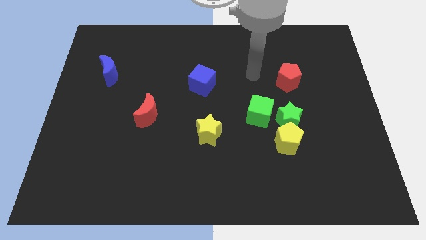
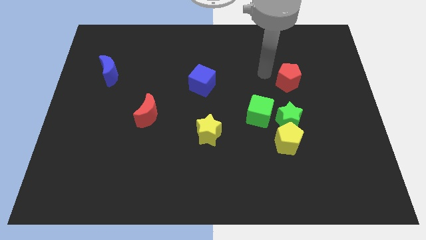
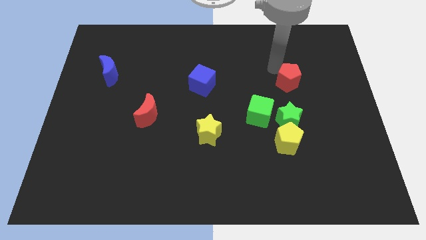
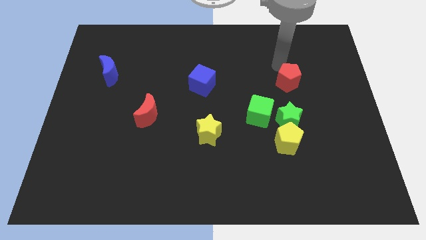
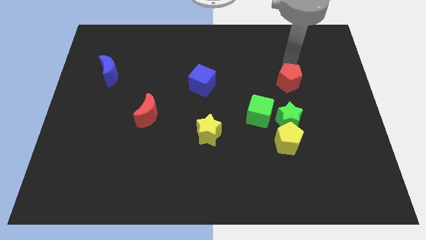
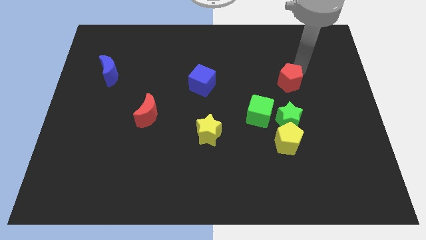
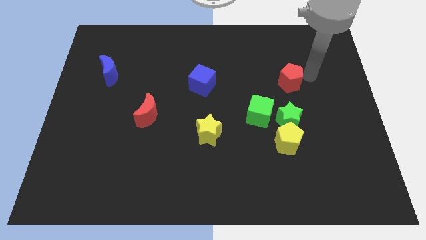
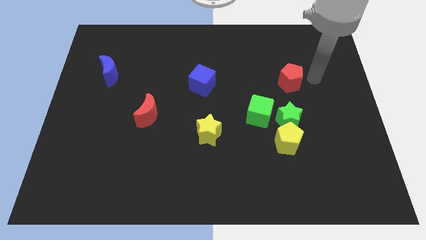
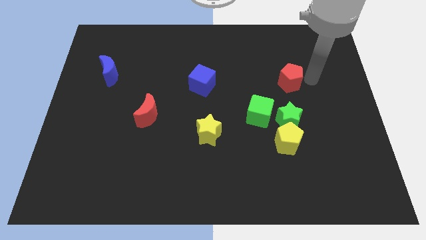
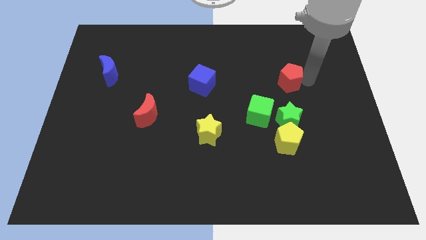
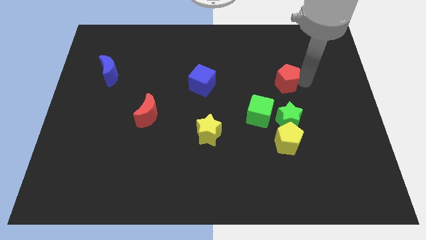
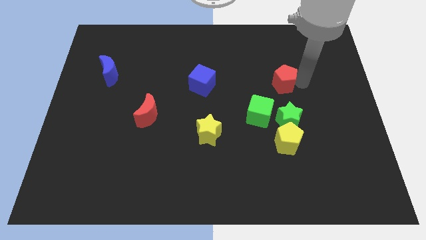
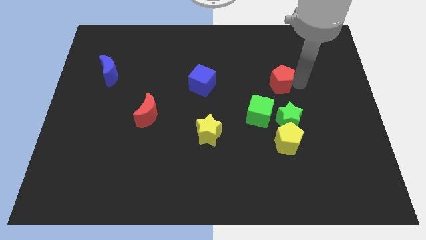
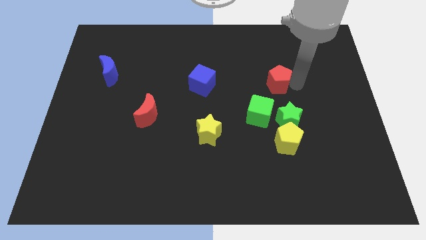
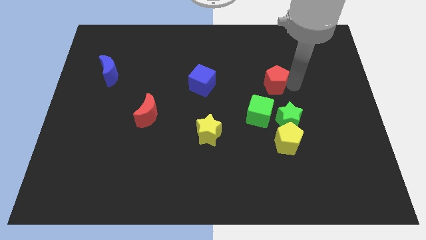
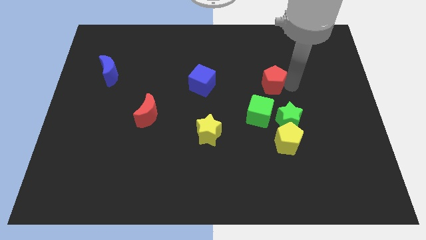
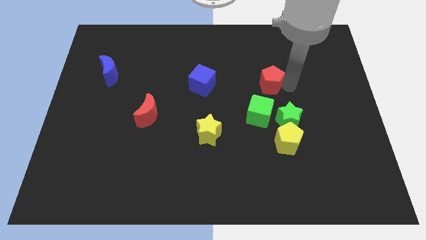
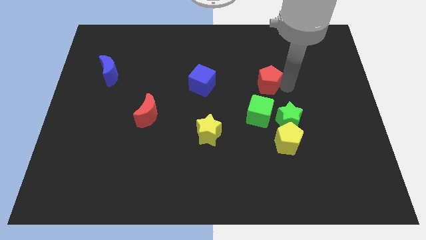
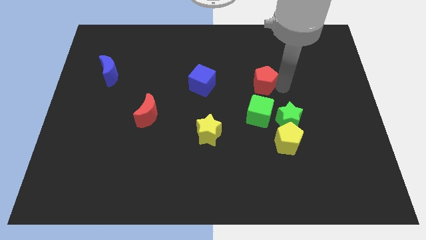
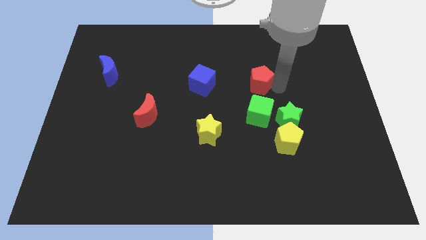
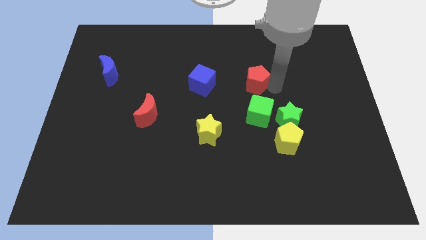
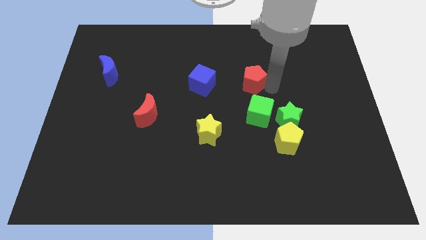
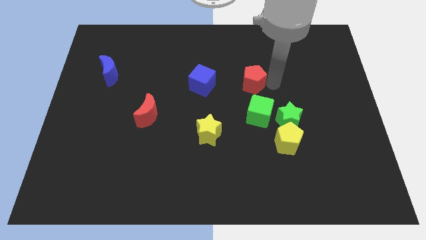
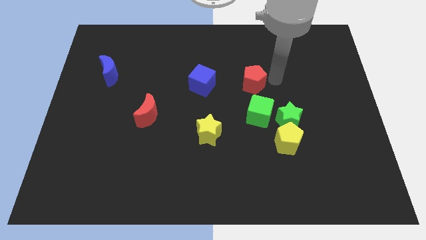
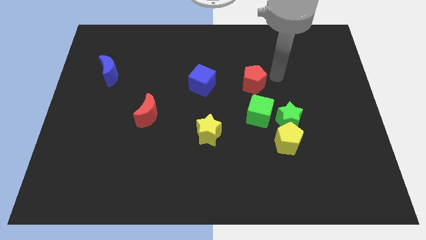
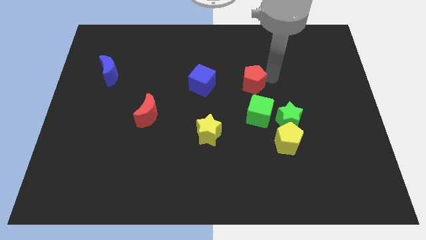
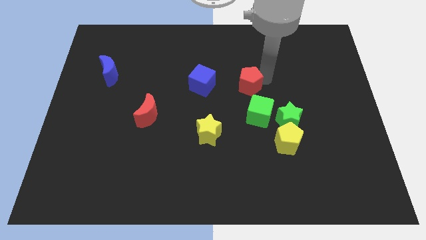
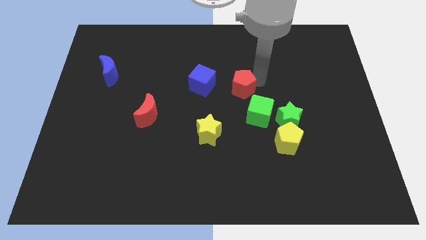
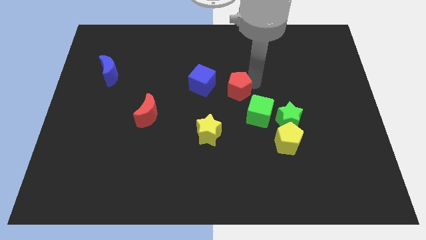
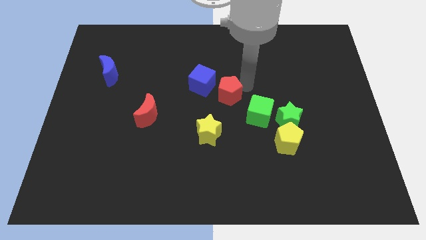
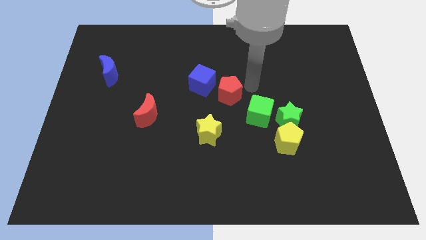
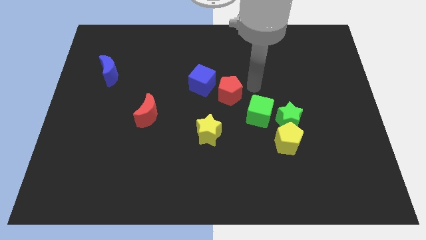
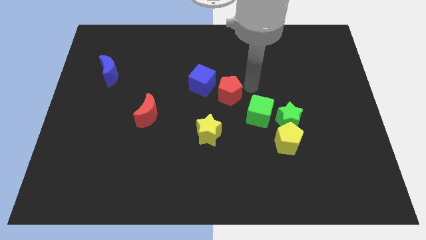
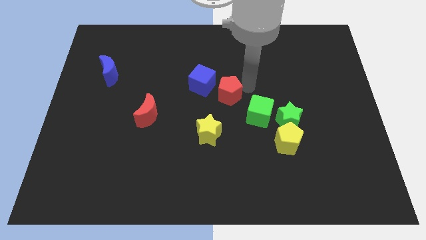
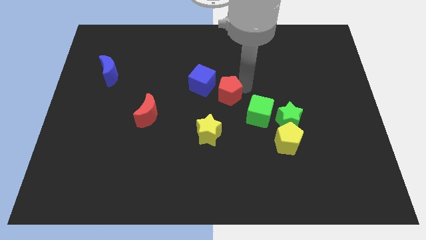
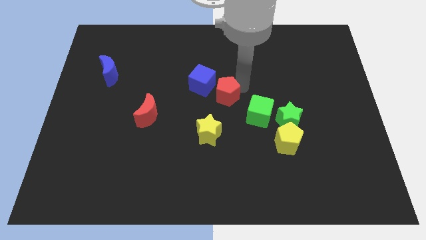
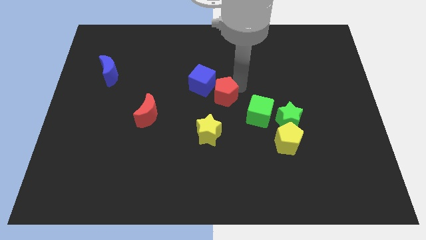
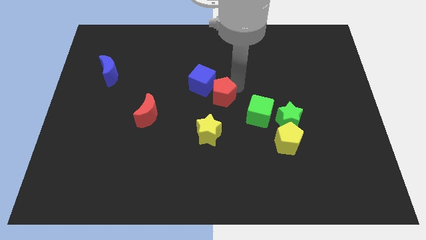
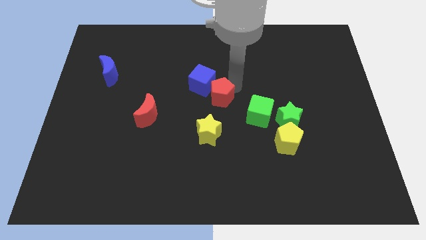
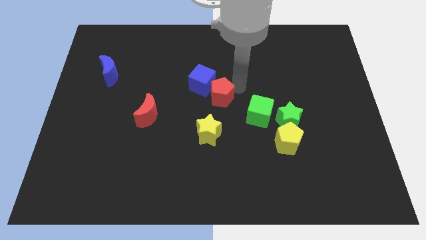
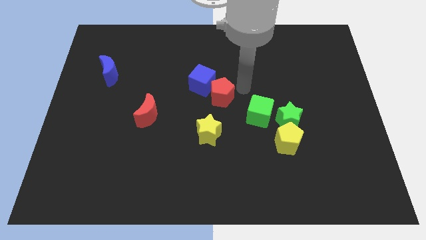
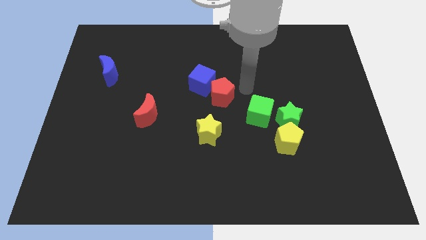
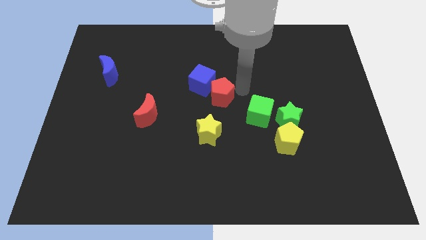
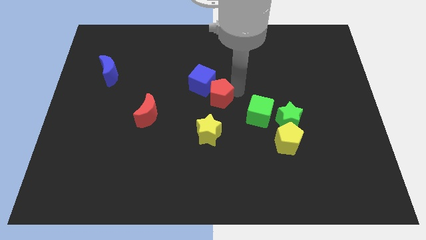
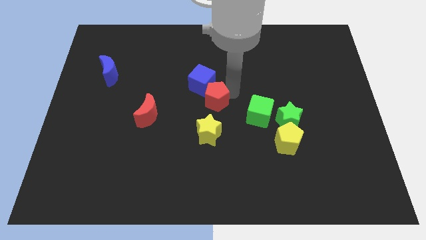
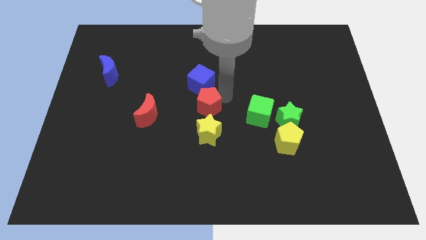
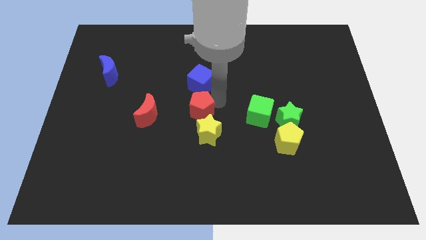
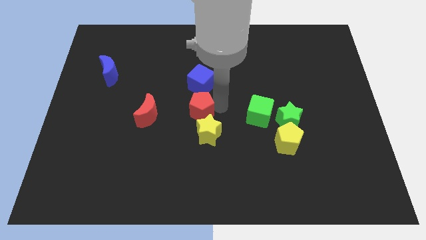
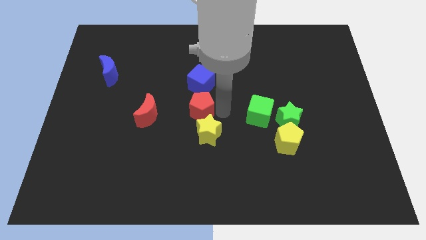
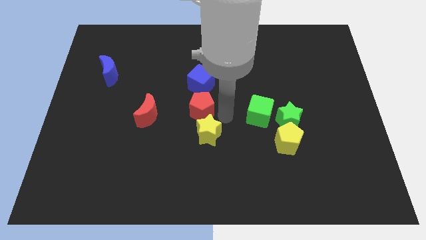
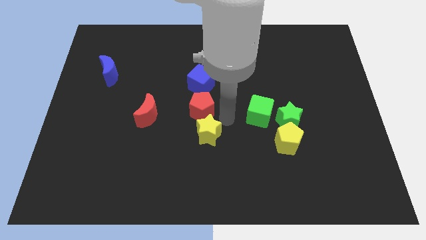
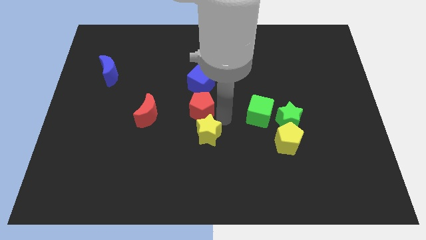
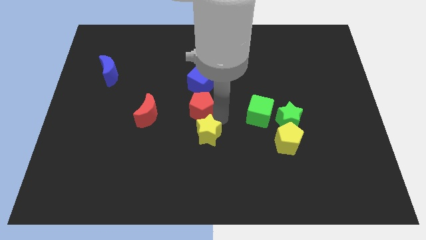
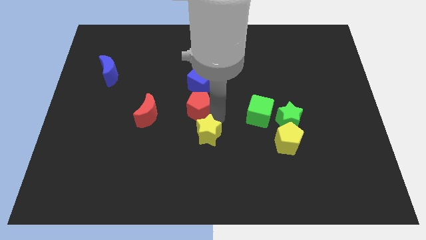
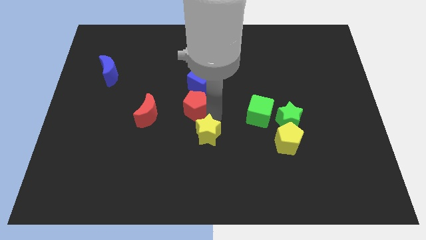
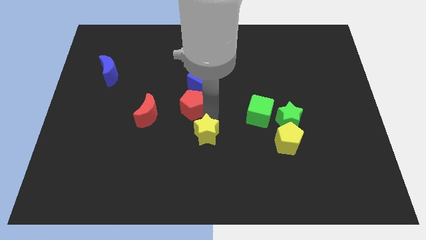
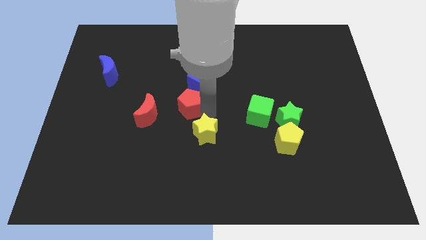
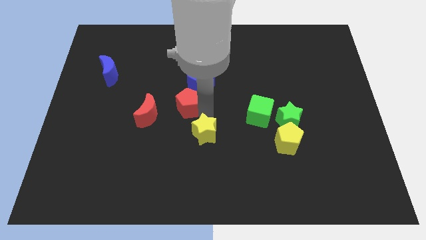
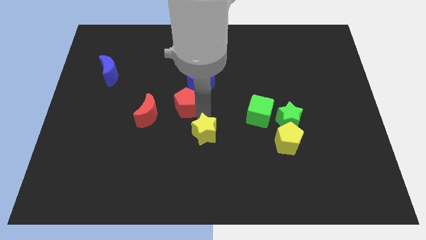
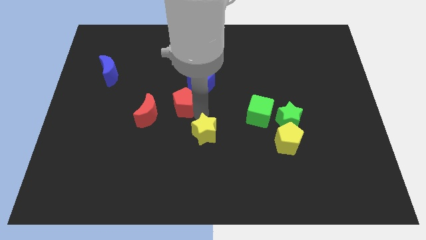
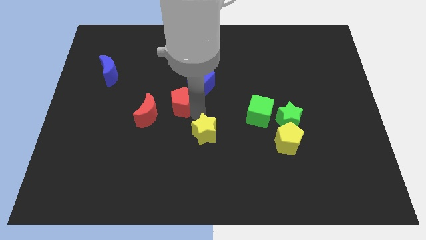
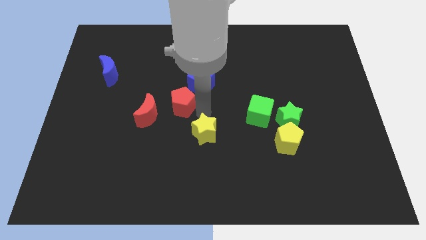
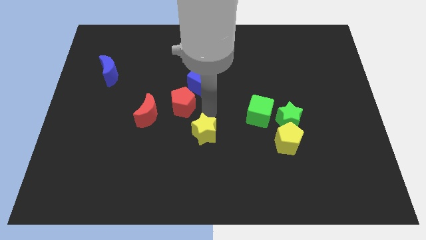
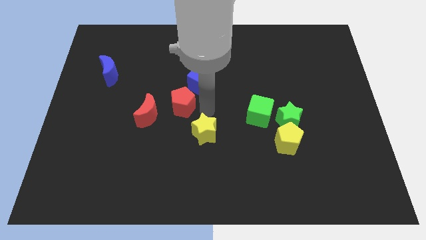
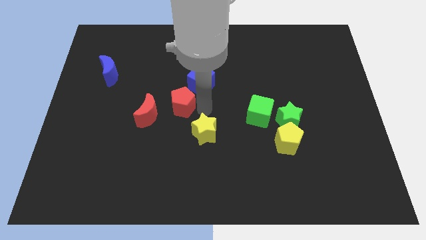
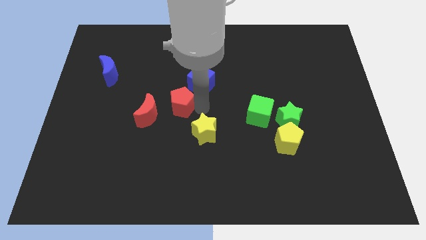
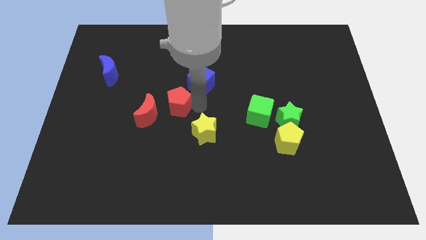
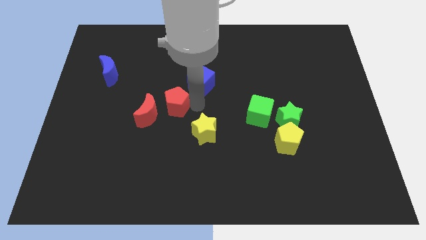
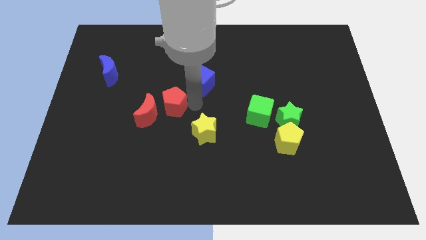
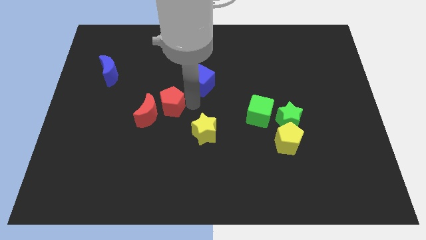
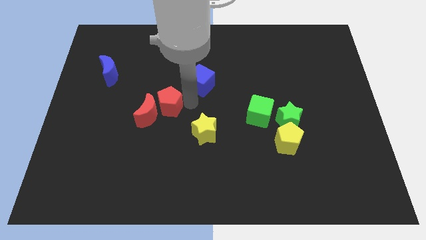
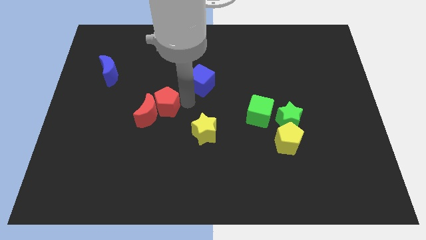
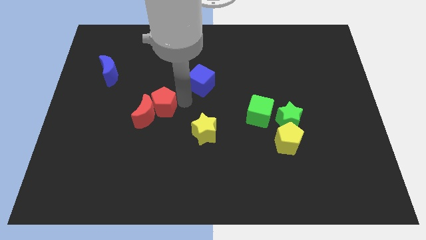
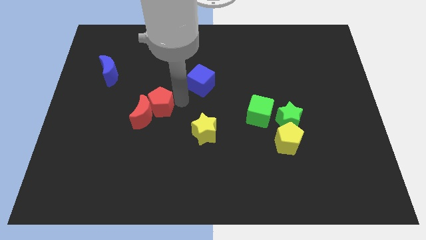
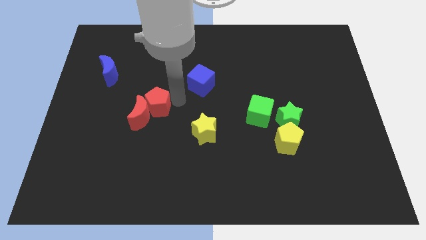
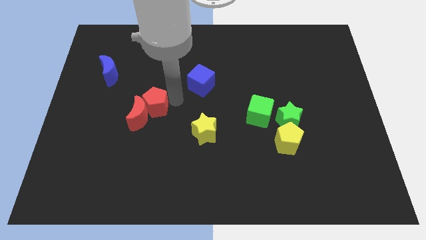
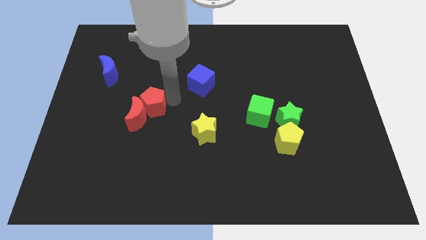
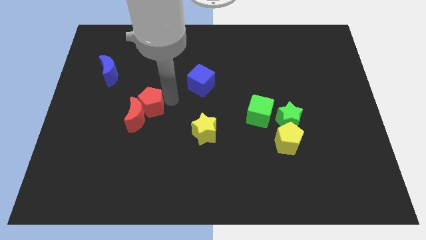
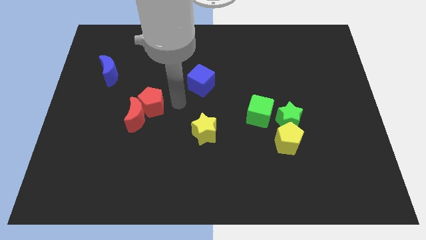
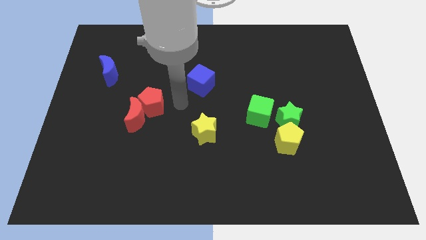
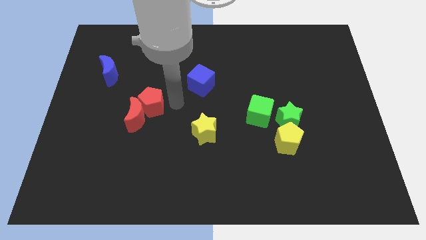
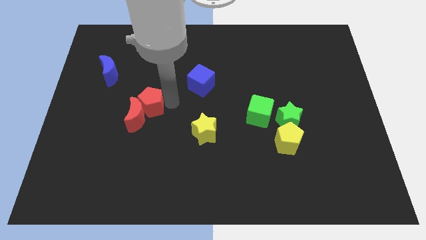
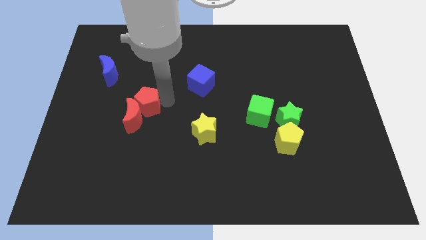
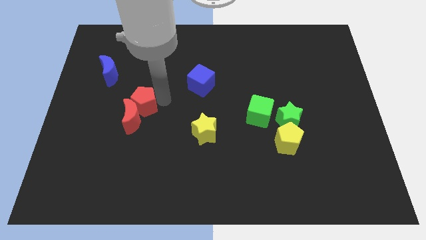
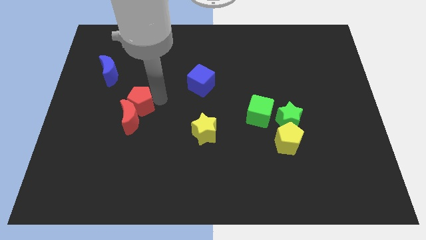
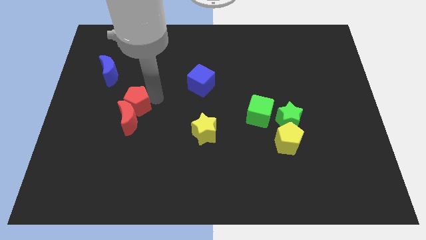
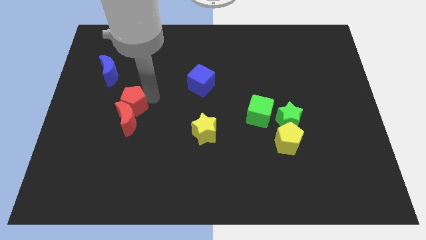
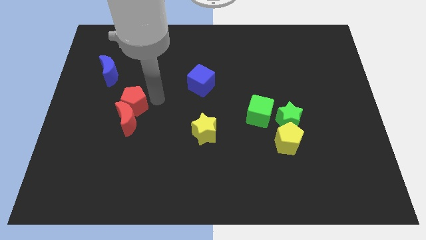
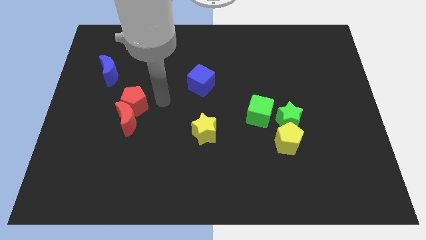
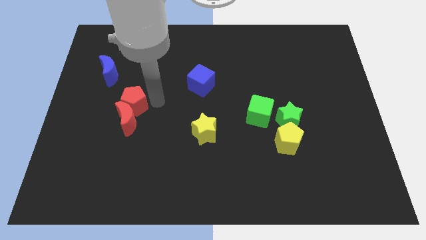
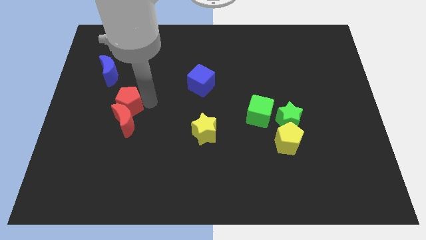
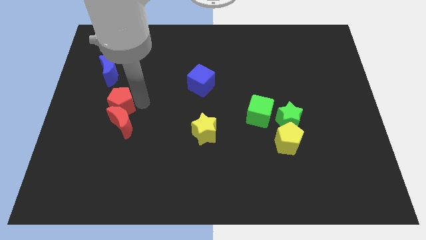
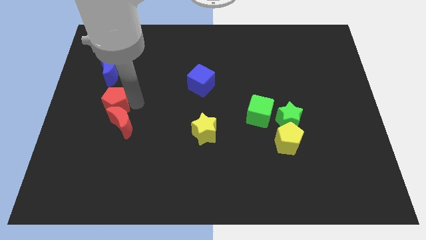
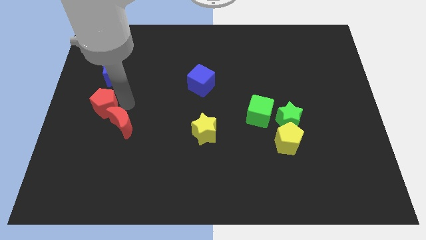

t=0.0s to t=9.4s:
move the red pentagon to the left side of the board
